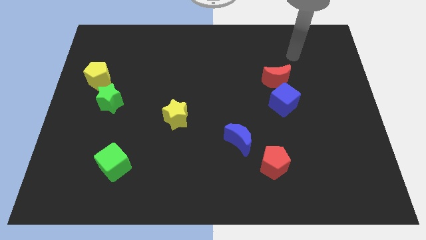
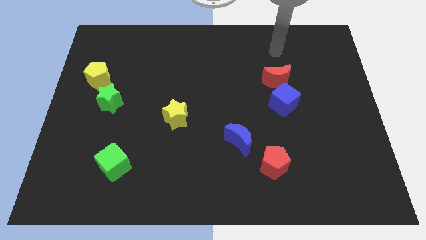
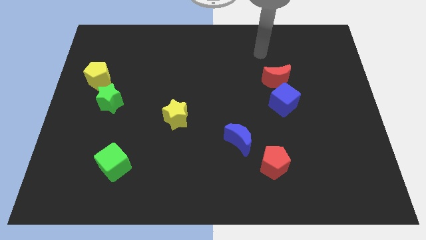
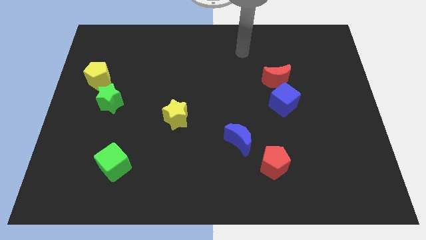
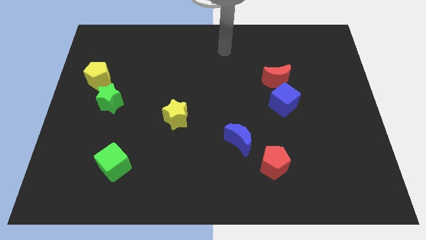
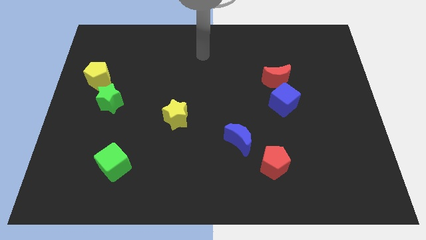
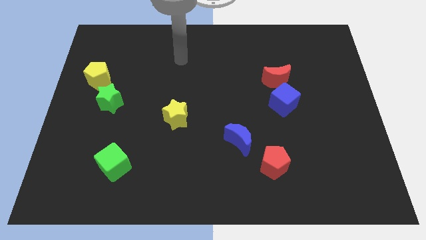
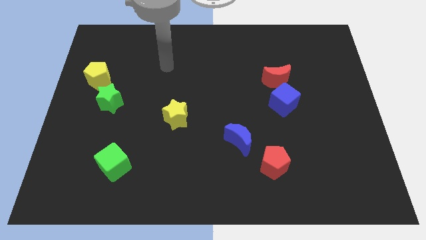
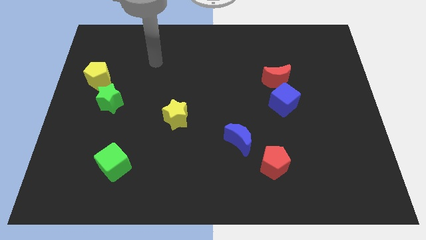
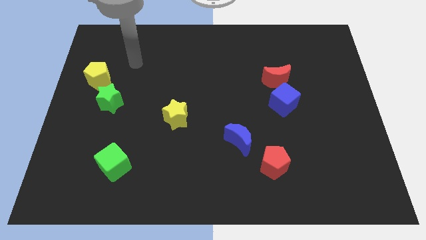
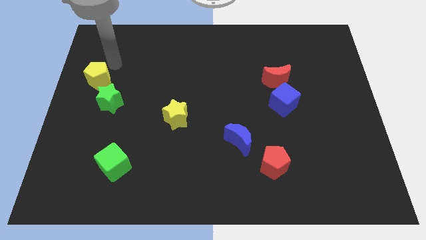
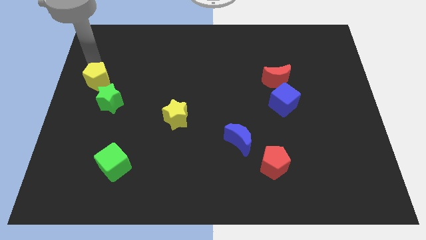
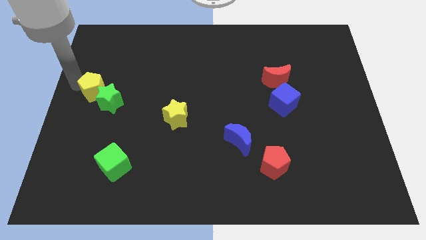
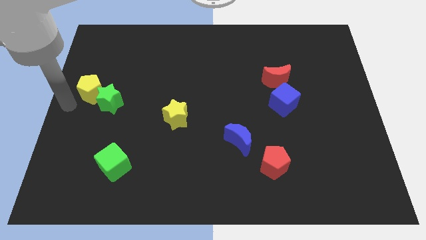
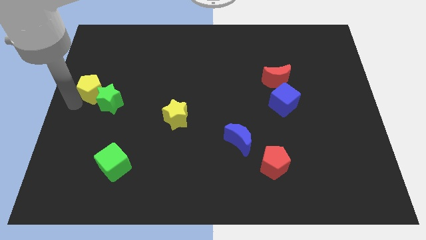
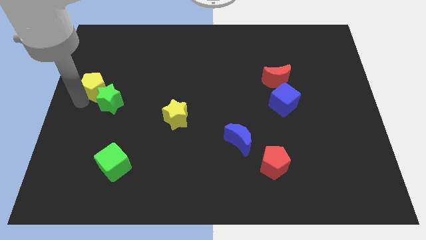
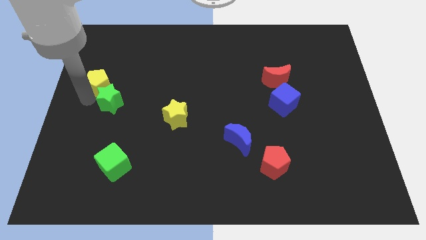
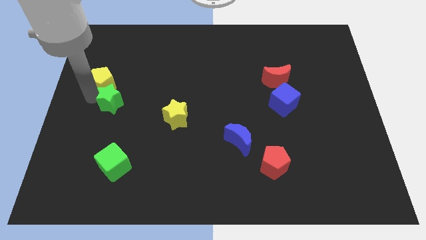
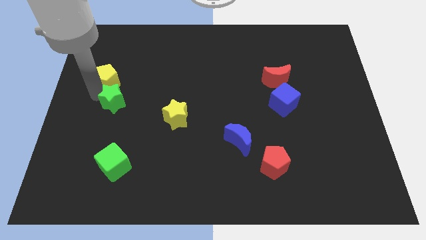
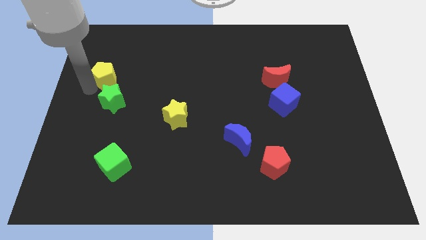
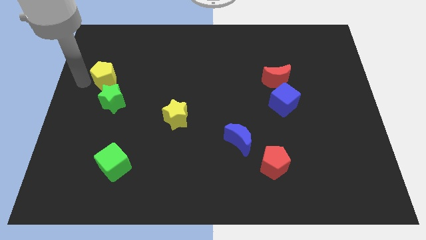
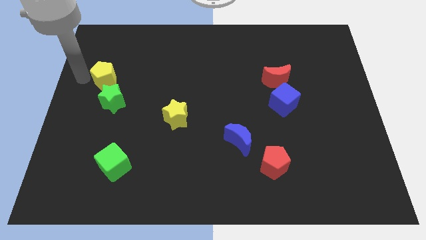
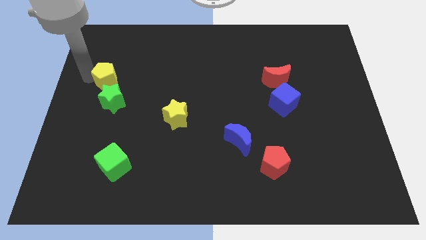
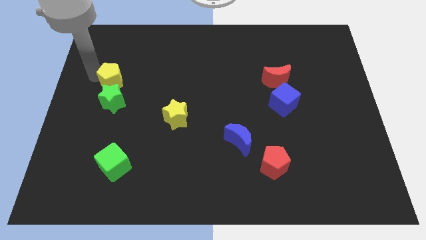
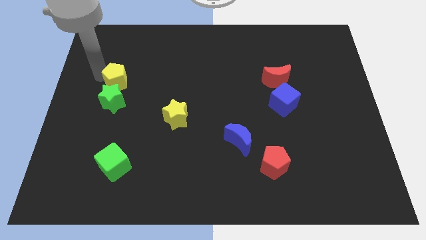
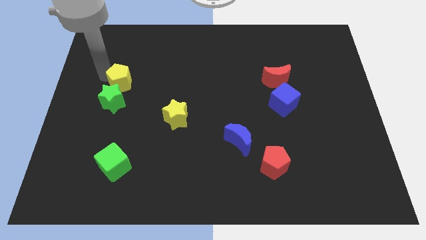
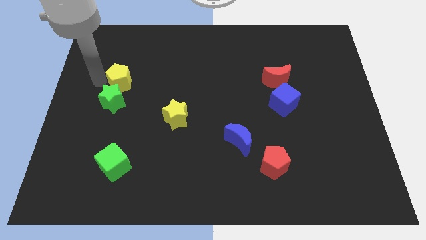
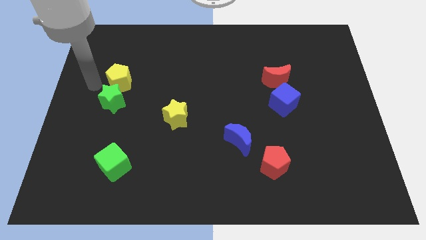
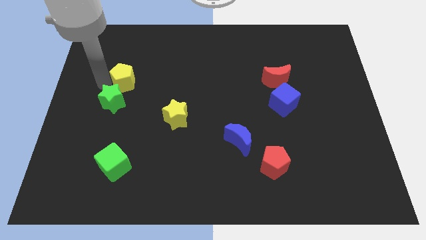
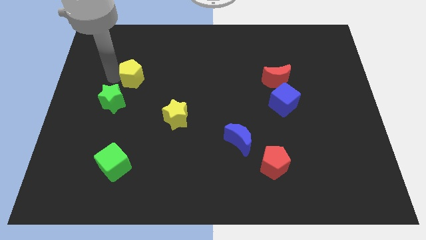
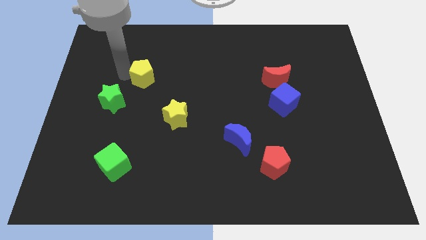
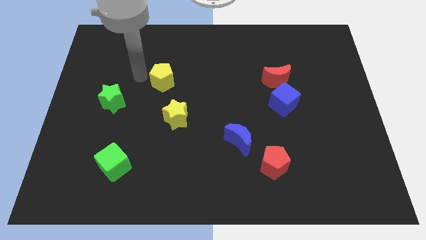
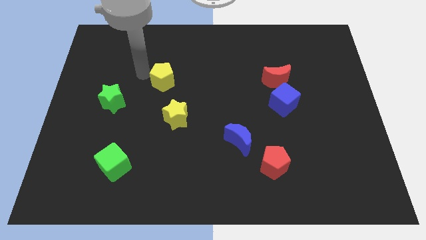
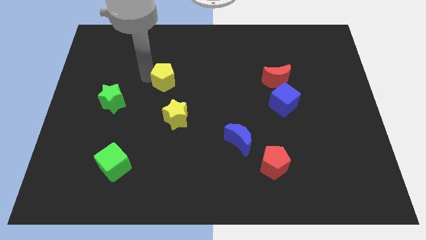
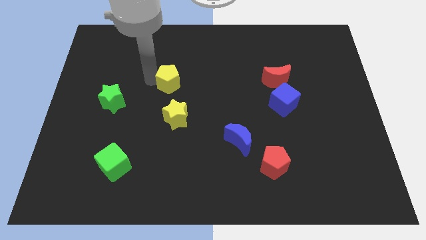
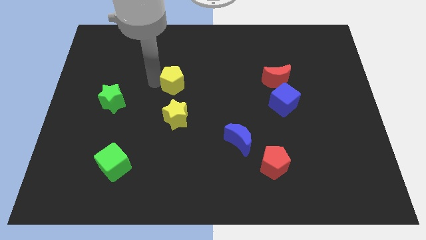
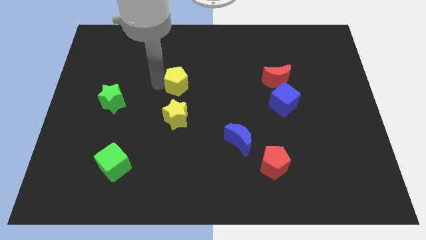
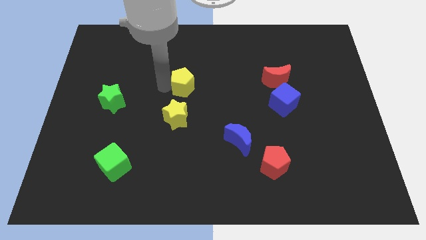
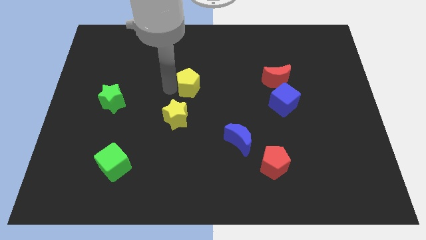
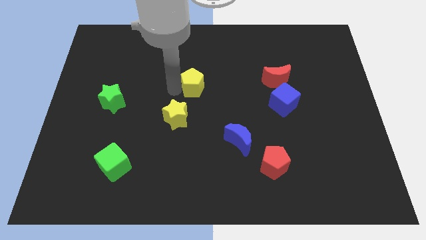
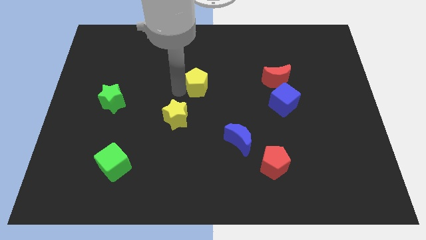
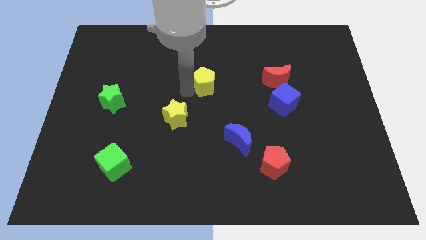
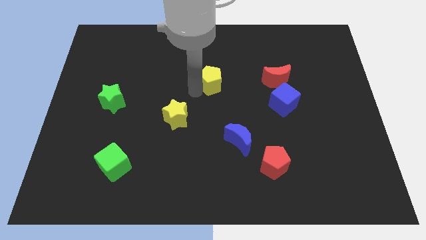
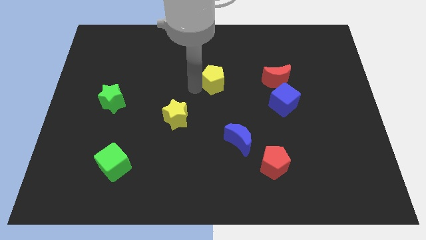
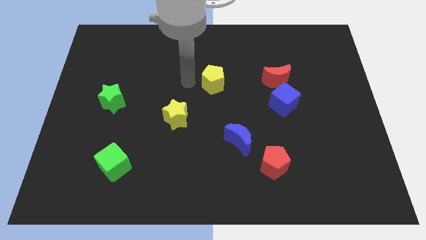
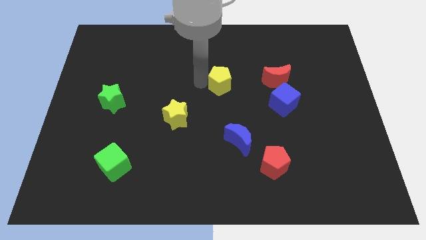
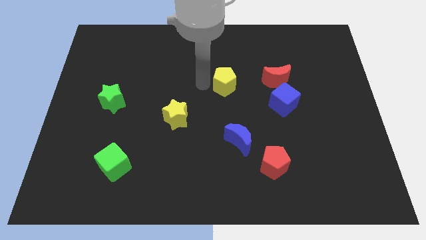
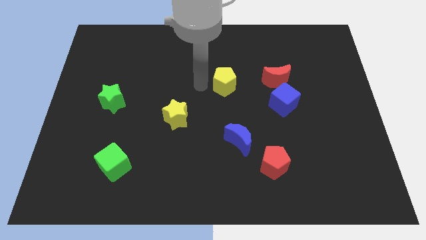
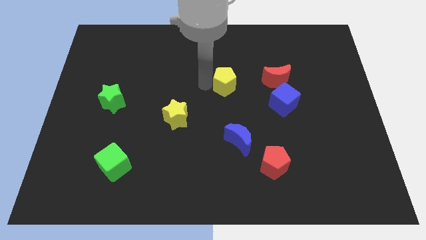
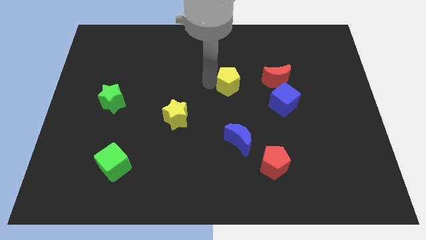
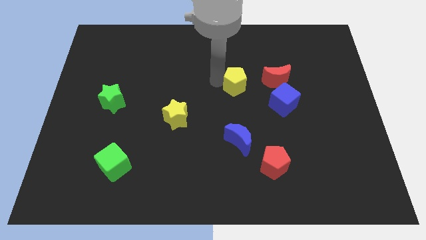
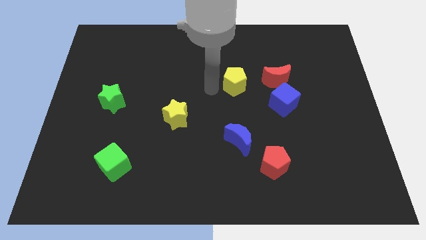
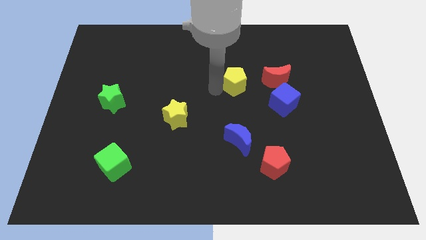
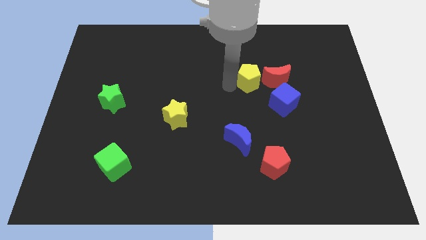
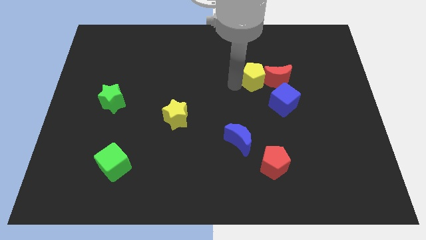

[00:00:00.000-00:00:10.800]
slide the yellow pentagon close to the red moon

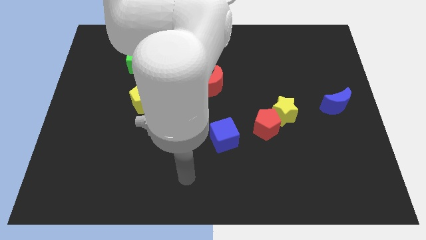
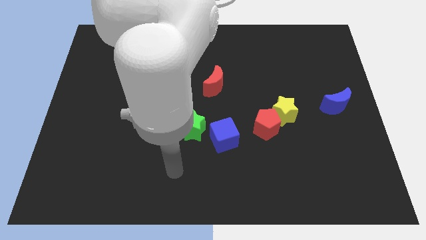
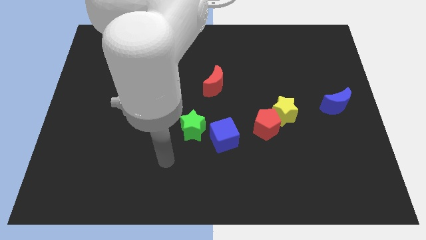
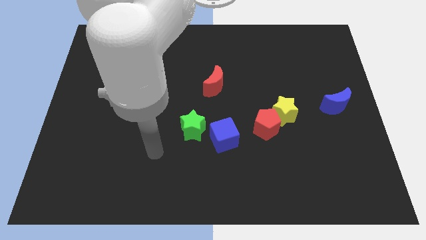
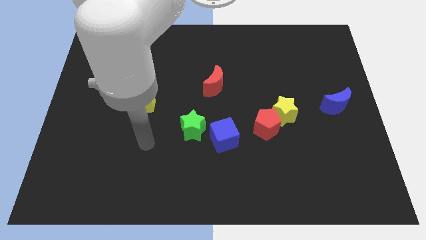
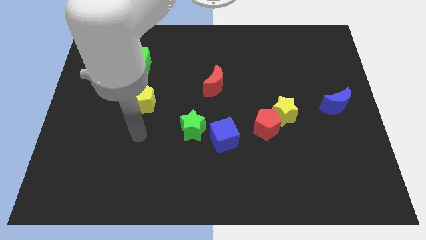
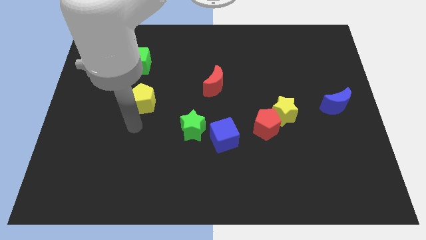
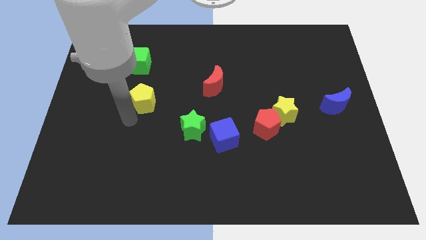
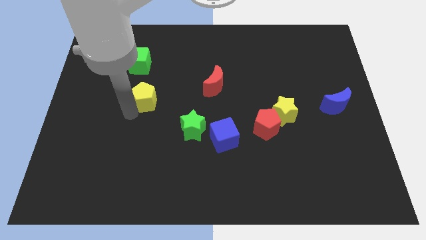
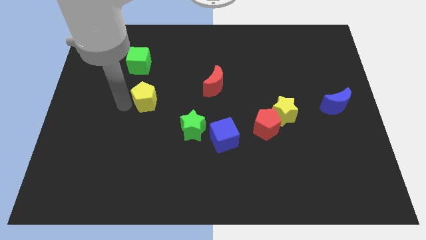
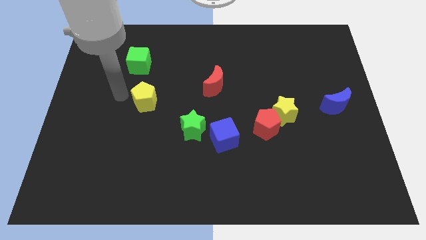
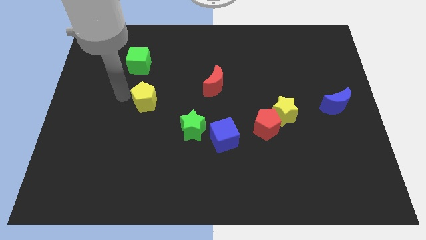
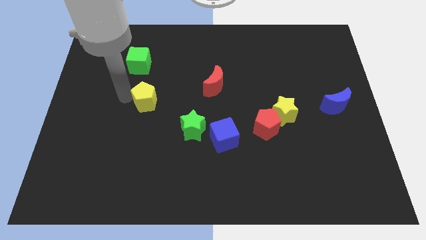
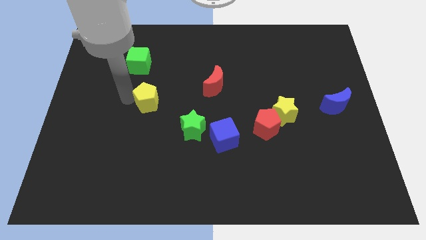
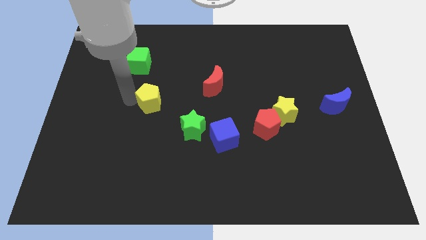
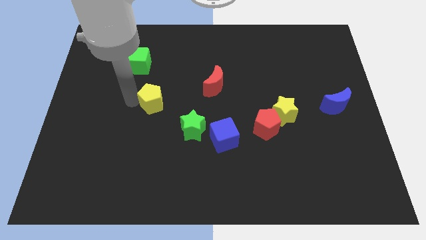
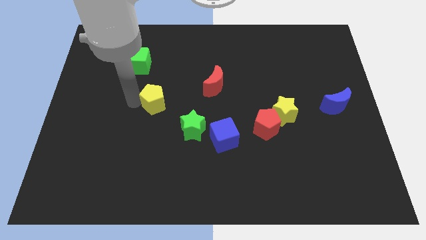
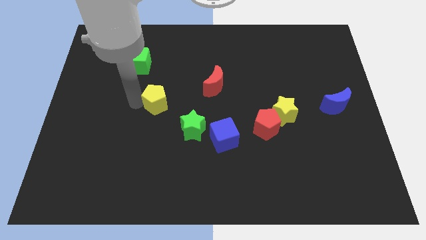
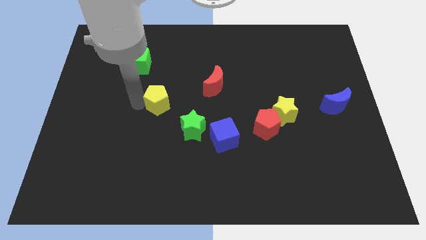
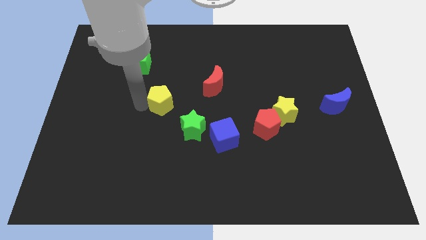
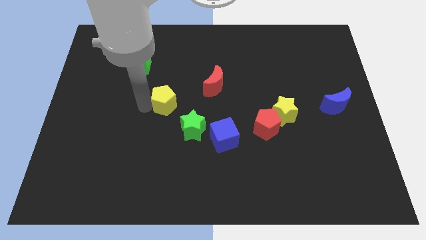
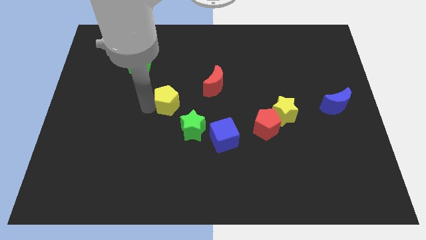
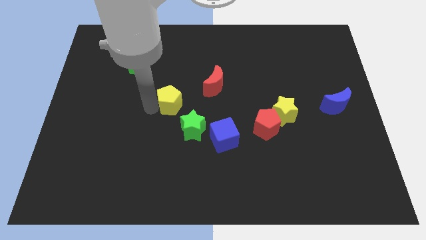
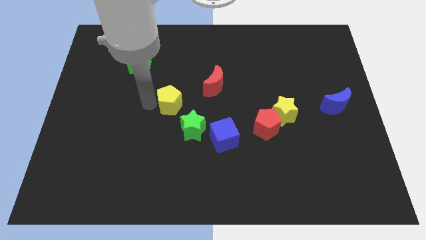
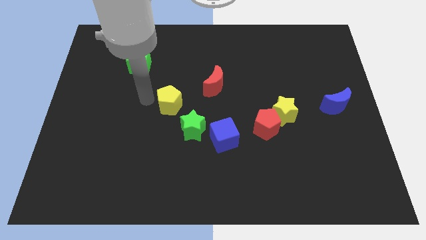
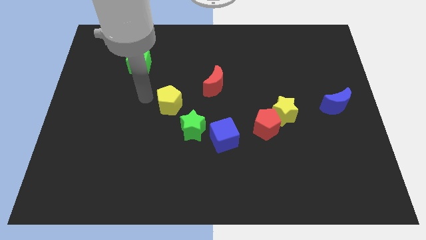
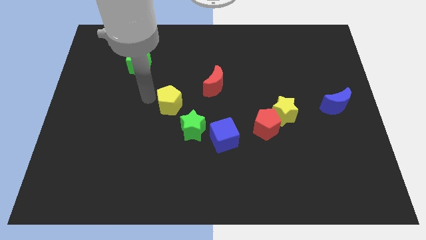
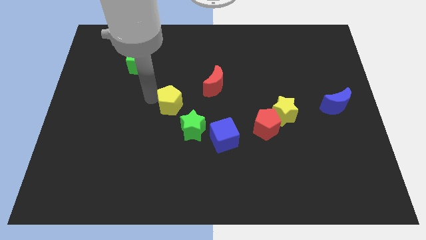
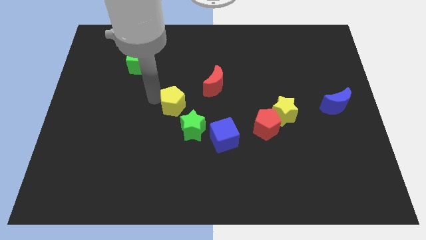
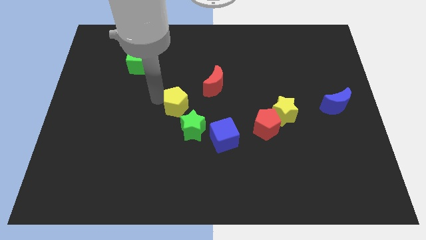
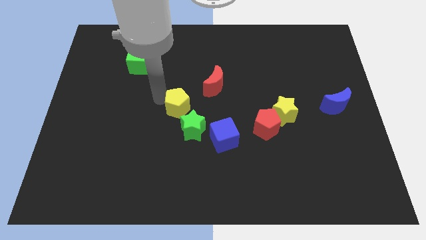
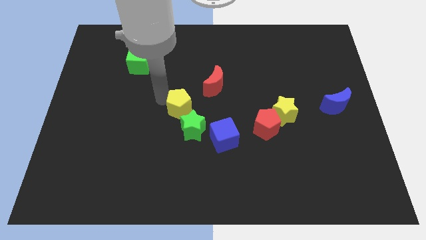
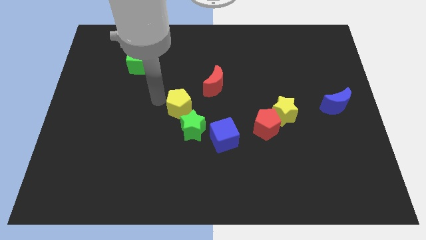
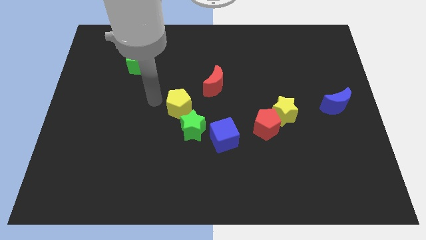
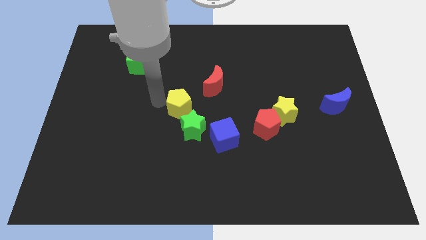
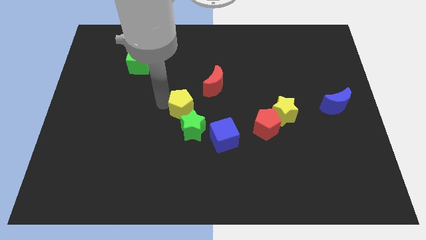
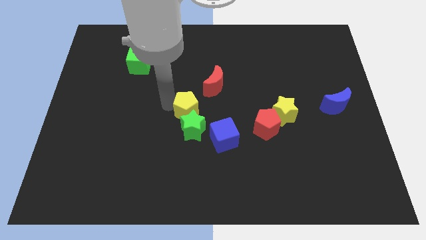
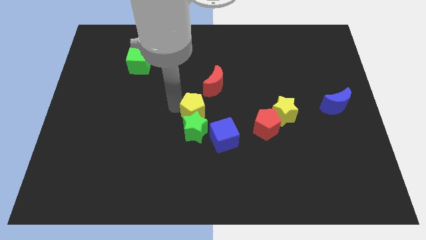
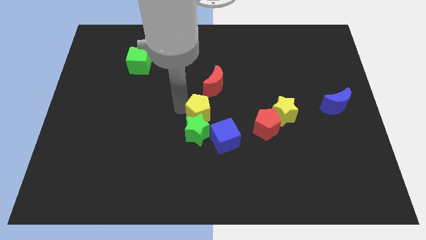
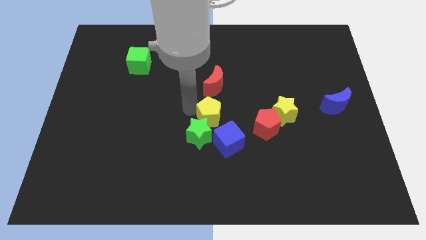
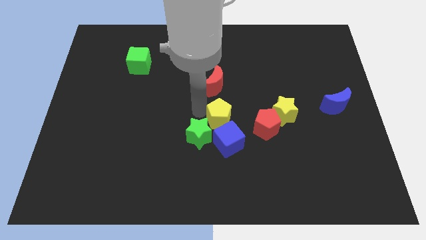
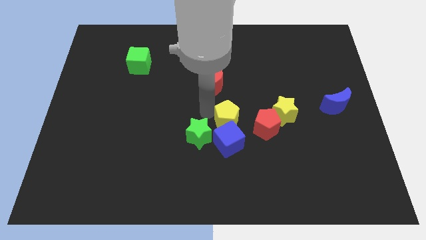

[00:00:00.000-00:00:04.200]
push the yellow pentagon towards the blue cube
